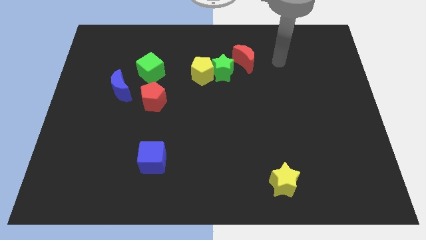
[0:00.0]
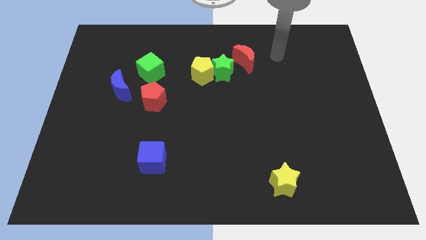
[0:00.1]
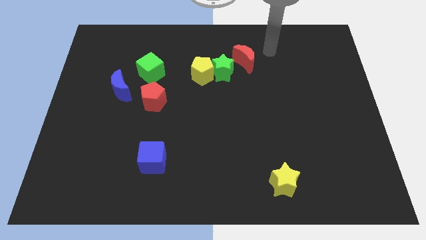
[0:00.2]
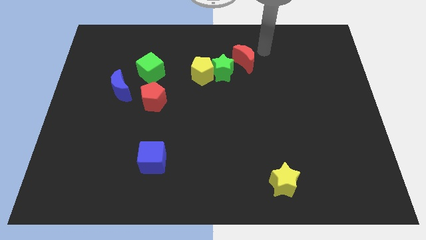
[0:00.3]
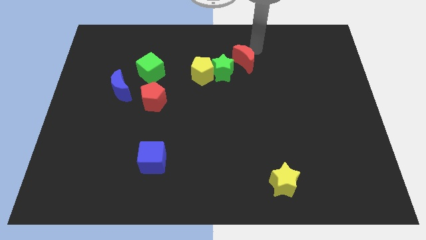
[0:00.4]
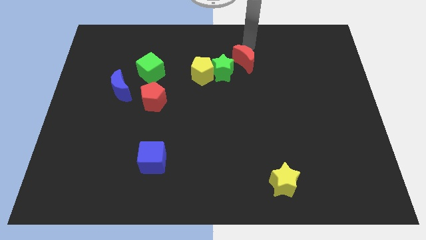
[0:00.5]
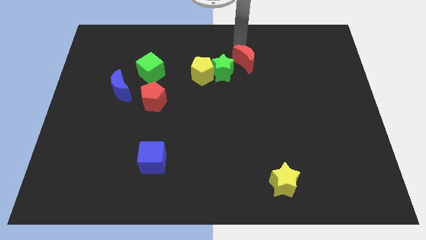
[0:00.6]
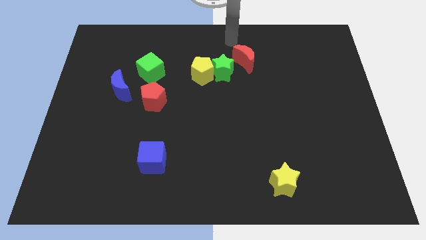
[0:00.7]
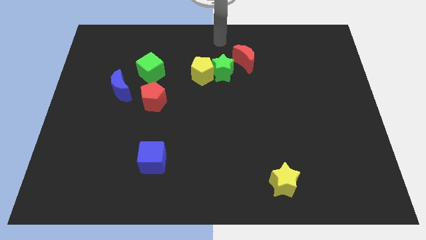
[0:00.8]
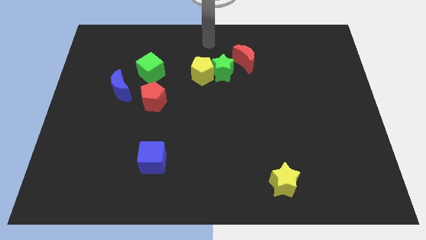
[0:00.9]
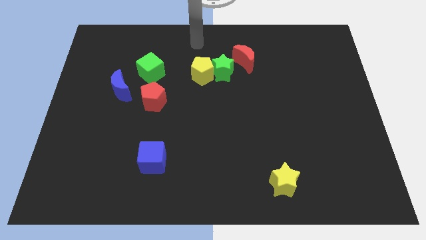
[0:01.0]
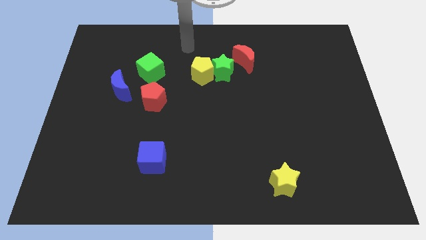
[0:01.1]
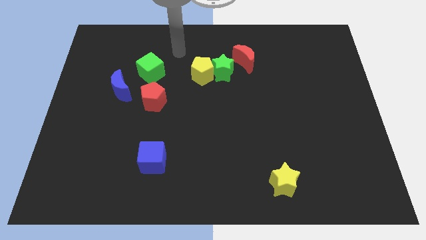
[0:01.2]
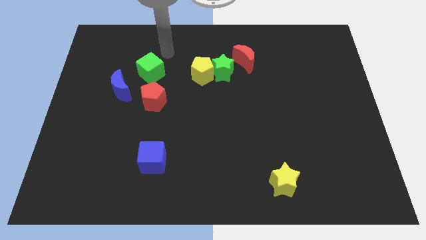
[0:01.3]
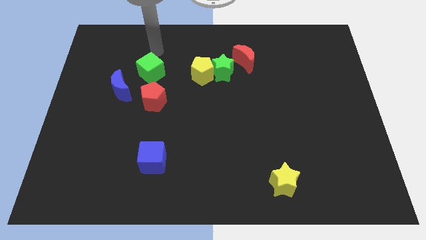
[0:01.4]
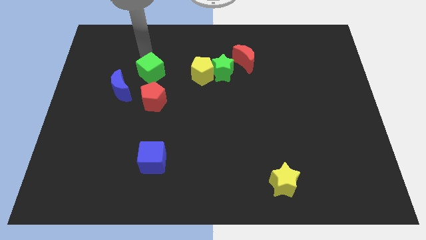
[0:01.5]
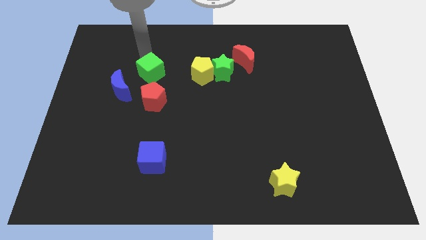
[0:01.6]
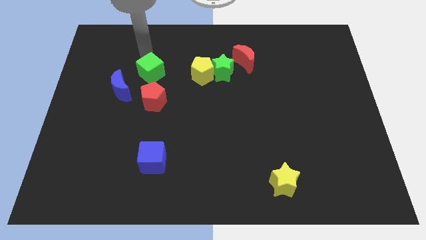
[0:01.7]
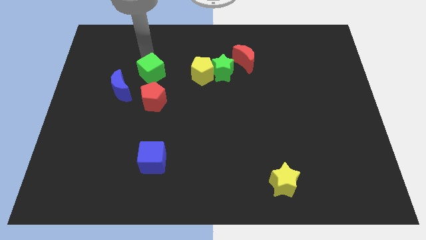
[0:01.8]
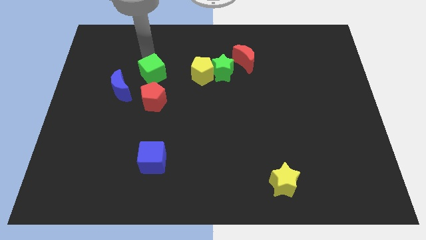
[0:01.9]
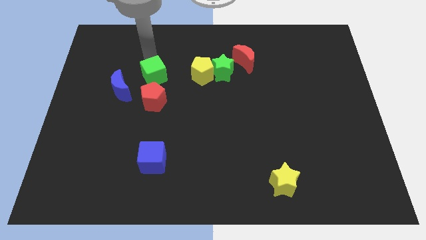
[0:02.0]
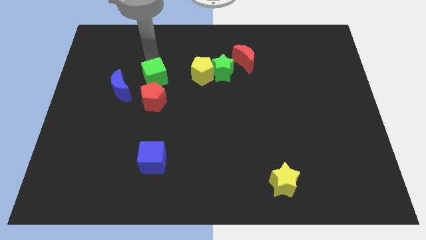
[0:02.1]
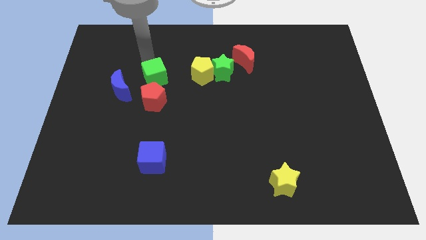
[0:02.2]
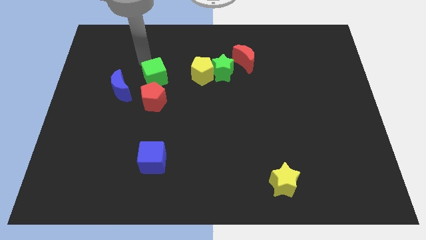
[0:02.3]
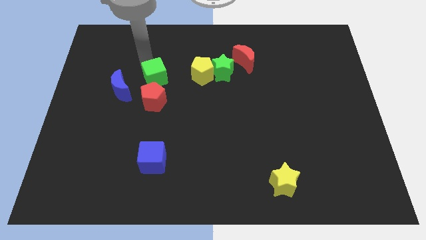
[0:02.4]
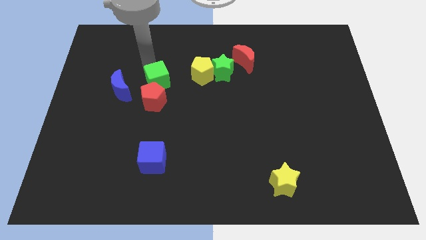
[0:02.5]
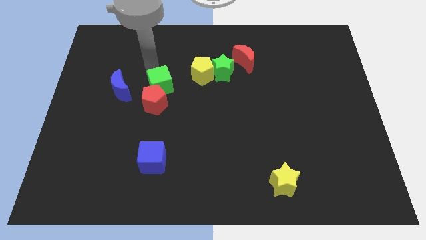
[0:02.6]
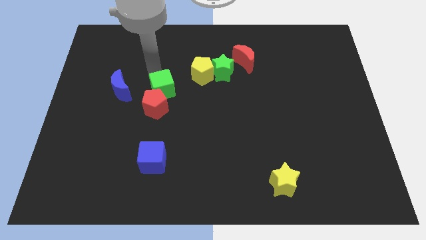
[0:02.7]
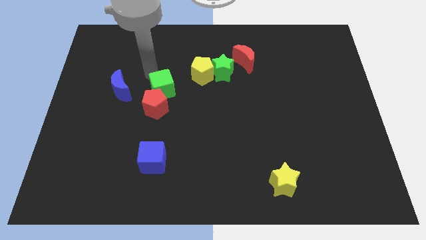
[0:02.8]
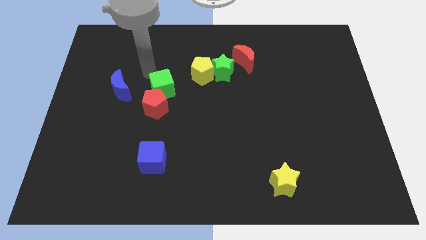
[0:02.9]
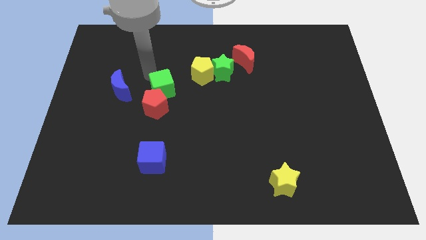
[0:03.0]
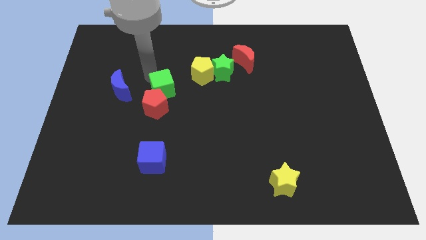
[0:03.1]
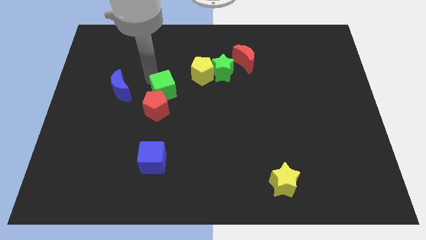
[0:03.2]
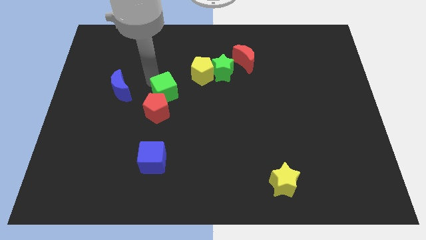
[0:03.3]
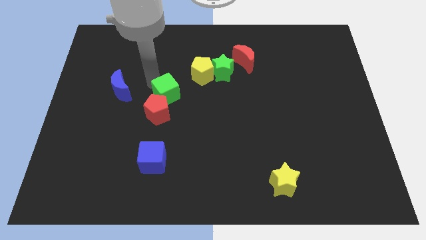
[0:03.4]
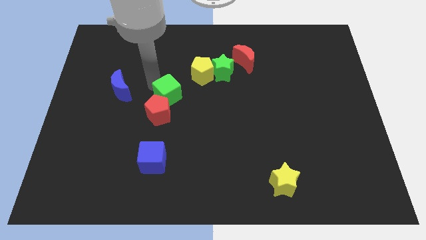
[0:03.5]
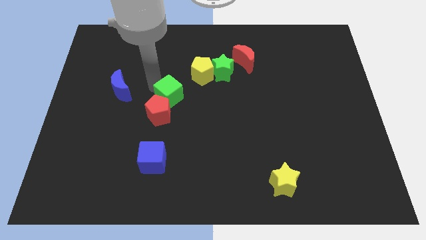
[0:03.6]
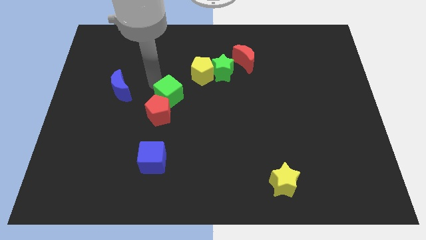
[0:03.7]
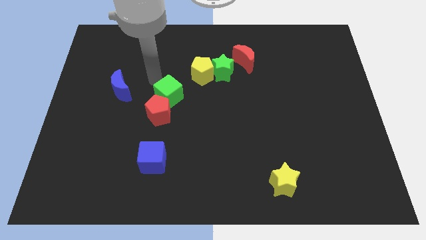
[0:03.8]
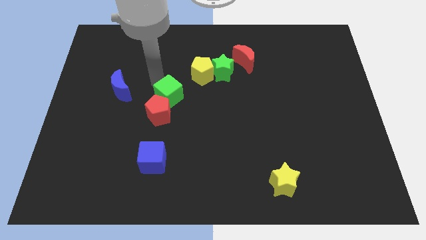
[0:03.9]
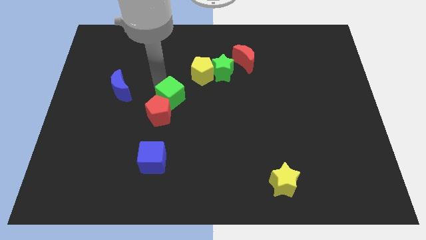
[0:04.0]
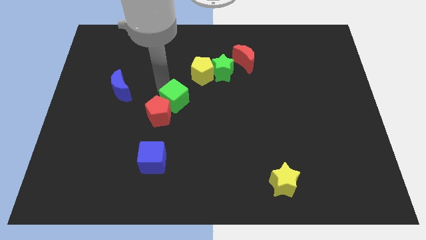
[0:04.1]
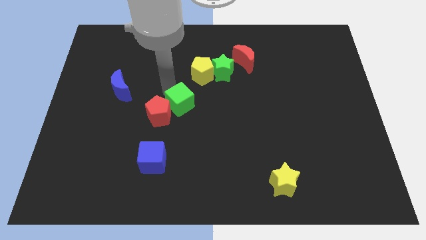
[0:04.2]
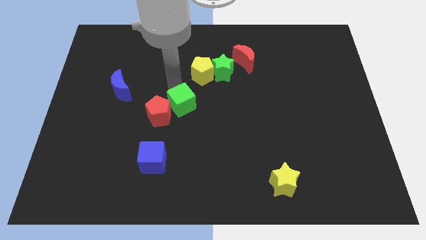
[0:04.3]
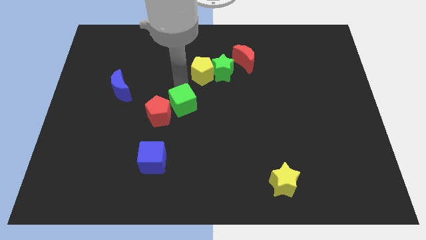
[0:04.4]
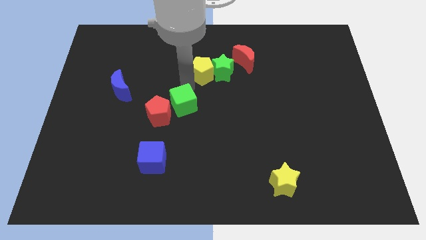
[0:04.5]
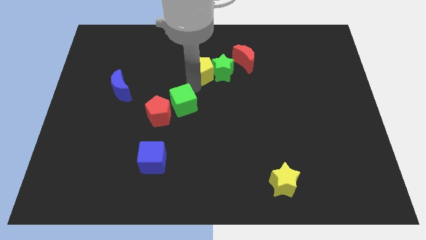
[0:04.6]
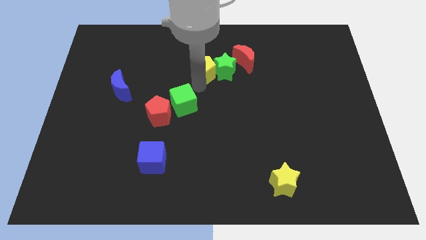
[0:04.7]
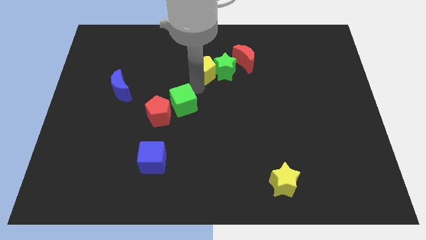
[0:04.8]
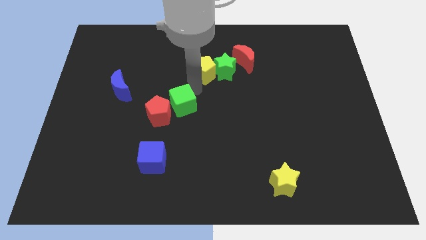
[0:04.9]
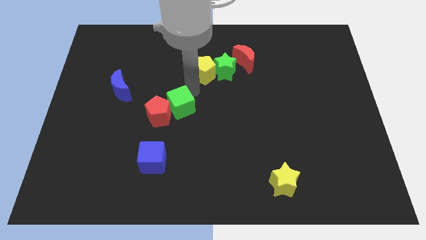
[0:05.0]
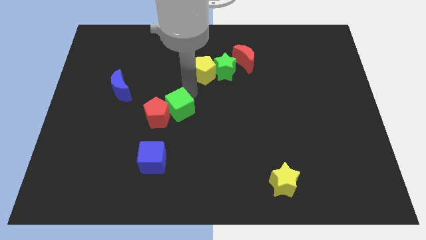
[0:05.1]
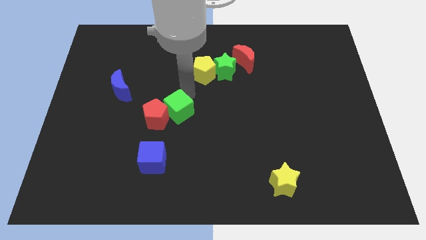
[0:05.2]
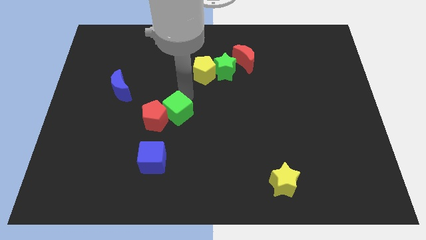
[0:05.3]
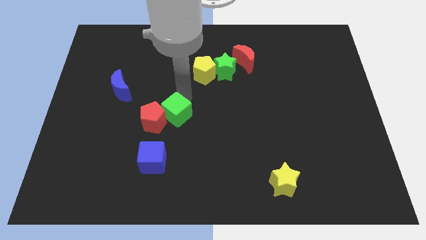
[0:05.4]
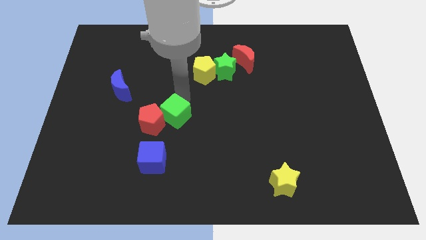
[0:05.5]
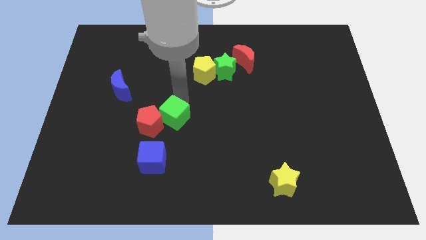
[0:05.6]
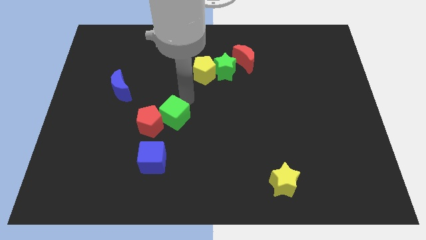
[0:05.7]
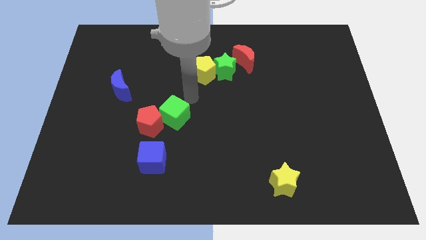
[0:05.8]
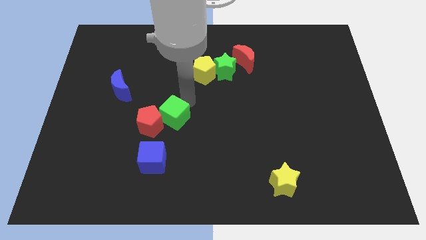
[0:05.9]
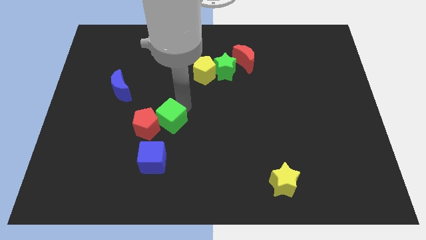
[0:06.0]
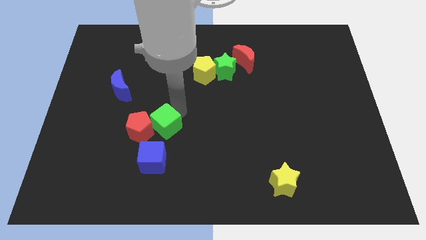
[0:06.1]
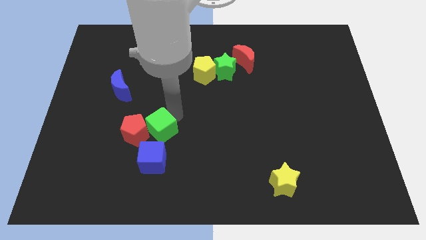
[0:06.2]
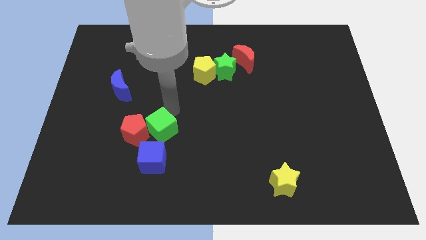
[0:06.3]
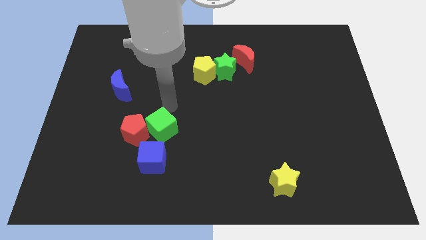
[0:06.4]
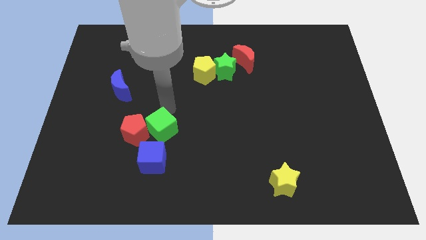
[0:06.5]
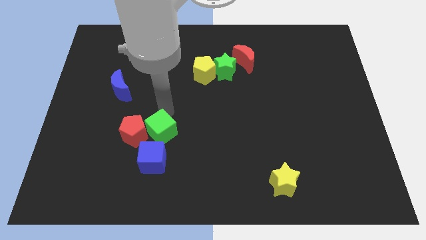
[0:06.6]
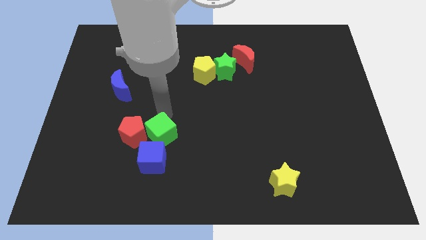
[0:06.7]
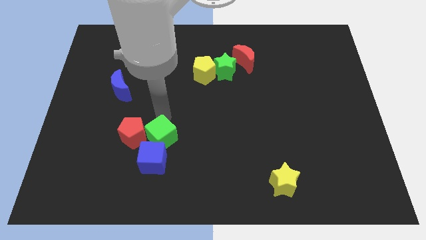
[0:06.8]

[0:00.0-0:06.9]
slide the green cube towards the blue cube
